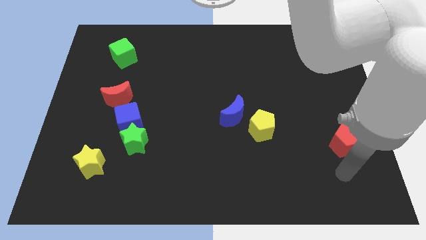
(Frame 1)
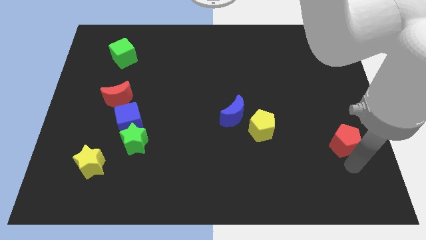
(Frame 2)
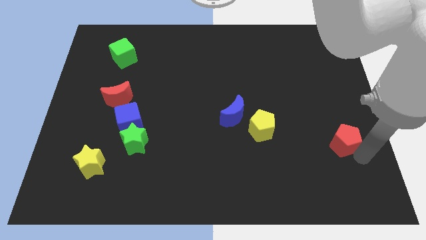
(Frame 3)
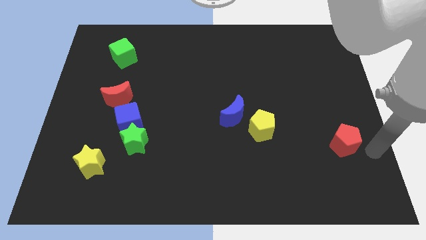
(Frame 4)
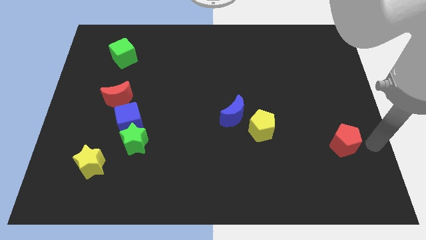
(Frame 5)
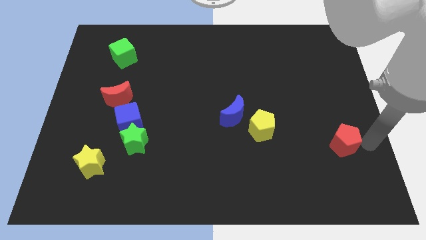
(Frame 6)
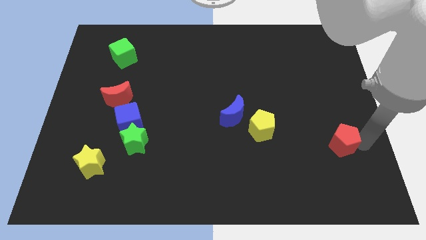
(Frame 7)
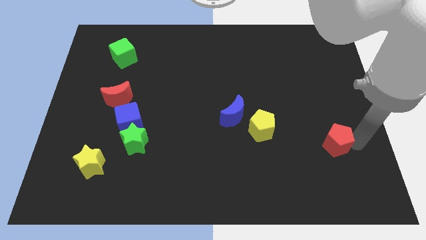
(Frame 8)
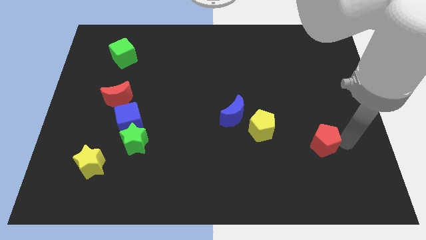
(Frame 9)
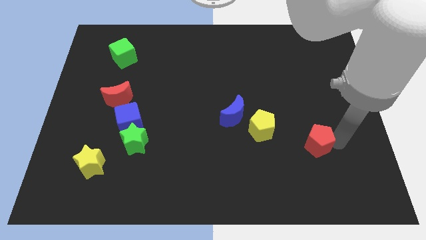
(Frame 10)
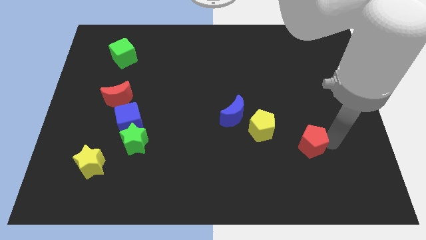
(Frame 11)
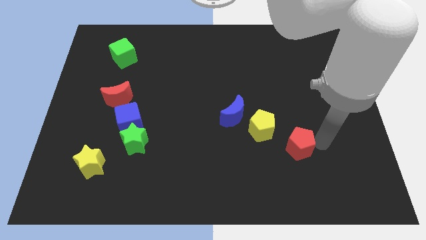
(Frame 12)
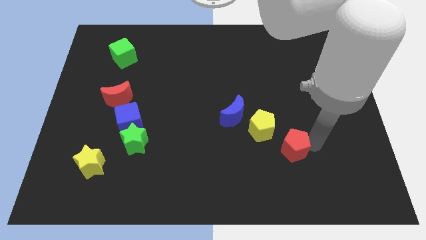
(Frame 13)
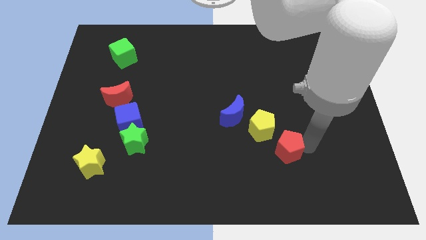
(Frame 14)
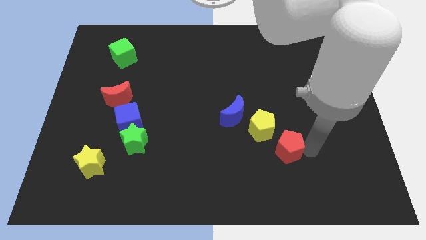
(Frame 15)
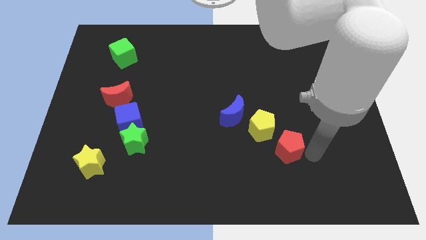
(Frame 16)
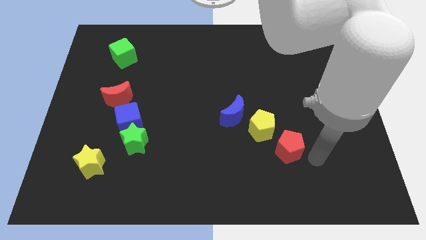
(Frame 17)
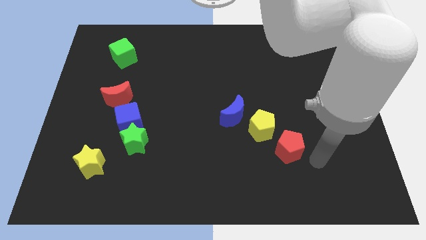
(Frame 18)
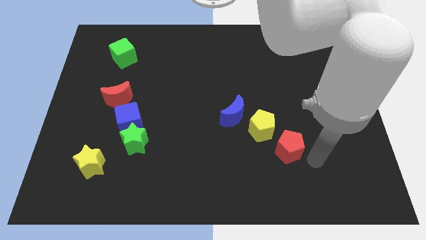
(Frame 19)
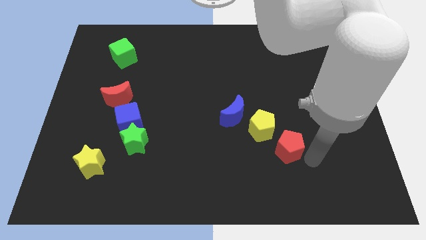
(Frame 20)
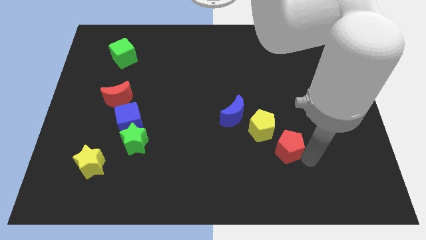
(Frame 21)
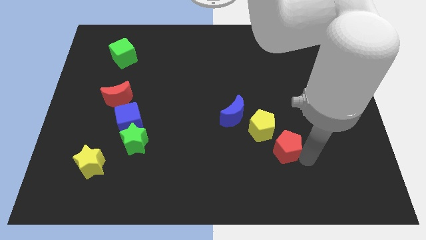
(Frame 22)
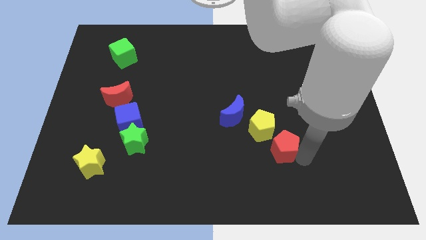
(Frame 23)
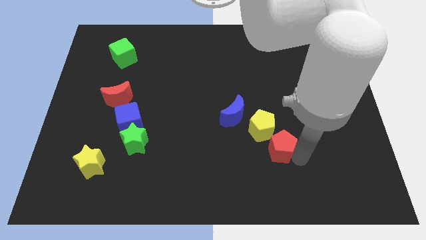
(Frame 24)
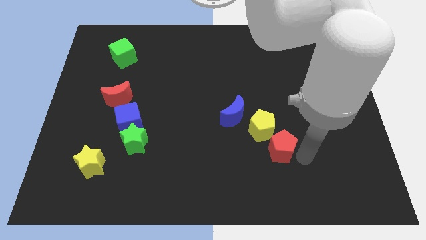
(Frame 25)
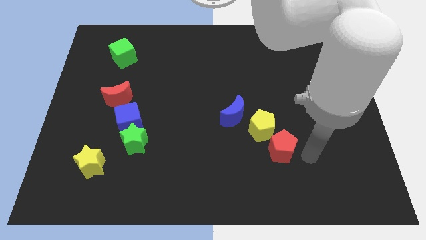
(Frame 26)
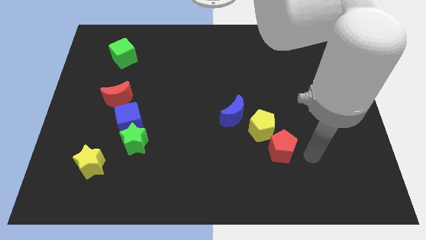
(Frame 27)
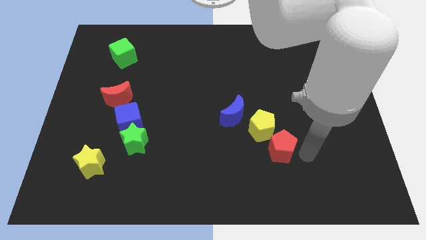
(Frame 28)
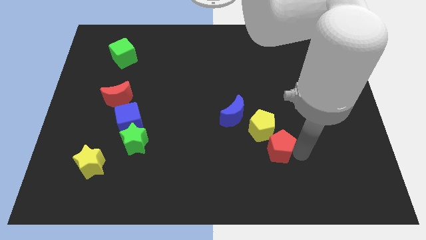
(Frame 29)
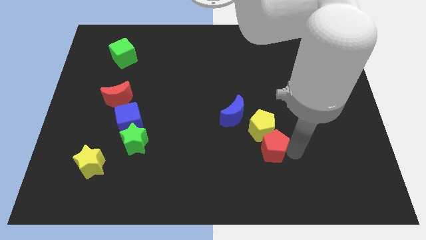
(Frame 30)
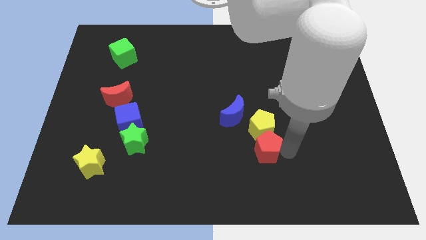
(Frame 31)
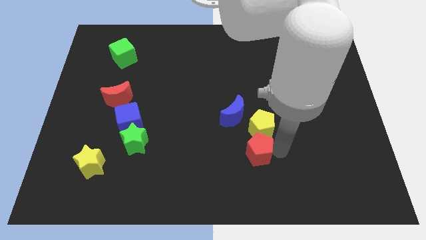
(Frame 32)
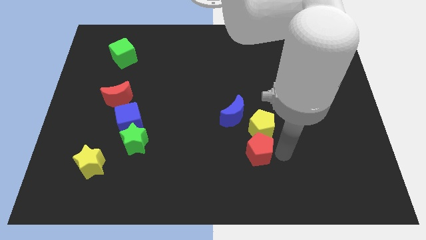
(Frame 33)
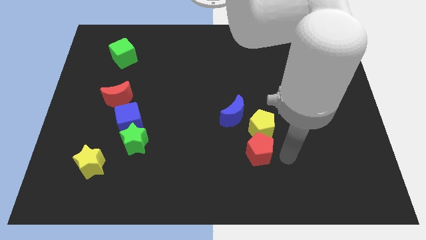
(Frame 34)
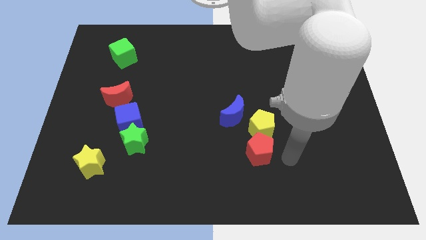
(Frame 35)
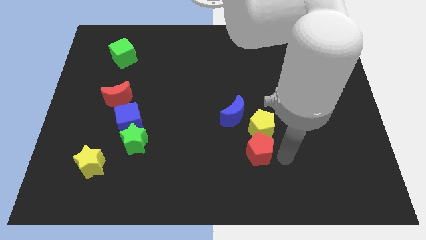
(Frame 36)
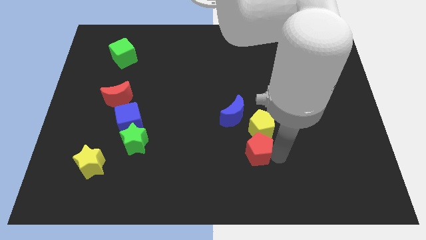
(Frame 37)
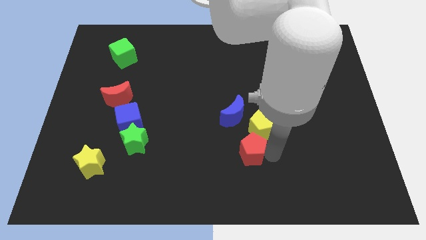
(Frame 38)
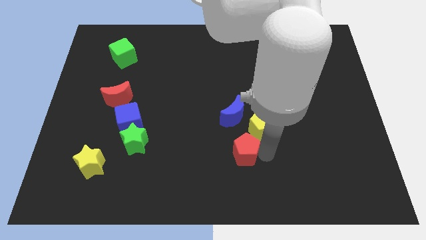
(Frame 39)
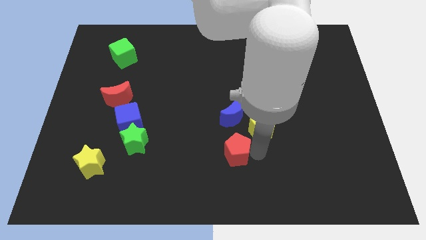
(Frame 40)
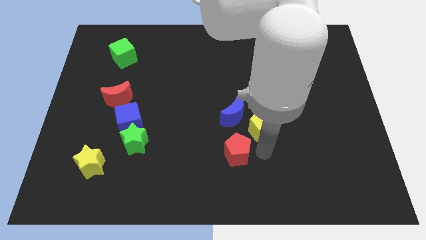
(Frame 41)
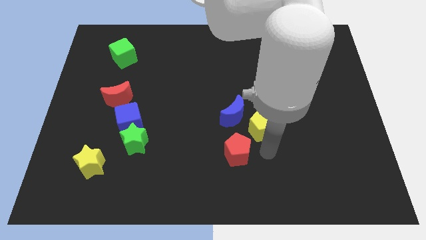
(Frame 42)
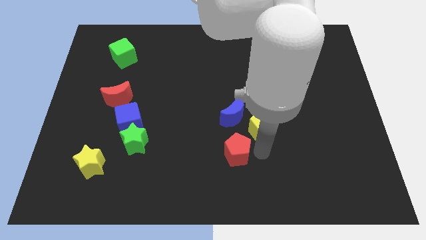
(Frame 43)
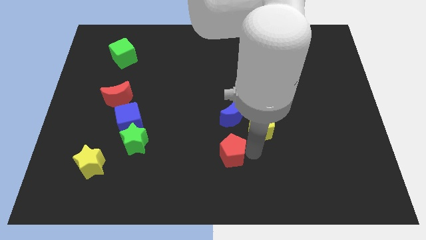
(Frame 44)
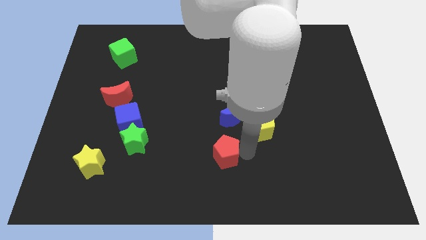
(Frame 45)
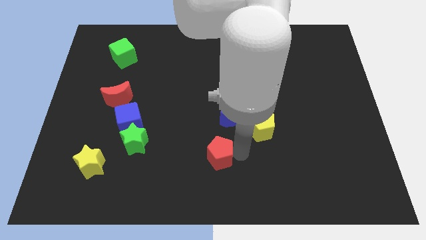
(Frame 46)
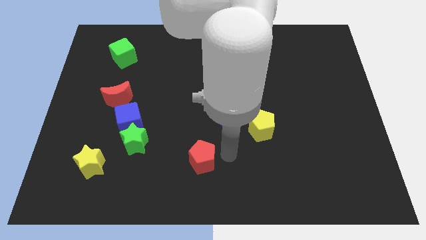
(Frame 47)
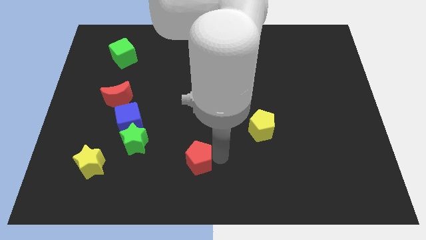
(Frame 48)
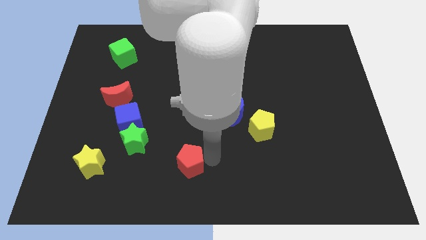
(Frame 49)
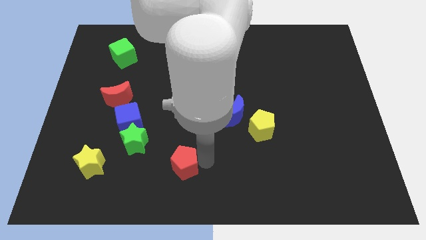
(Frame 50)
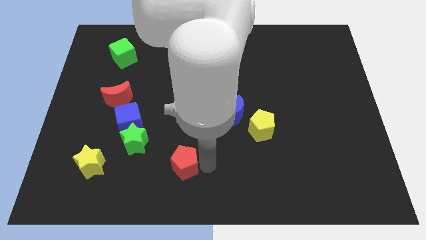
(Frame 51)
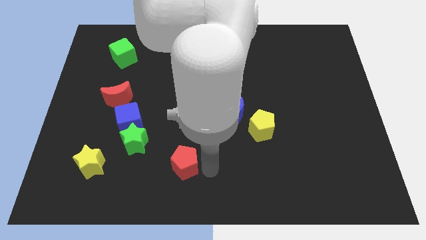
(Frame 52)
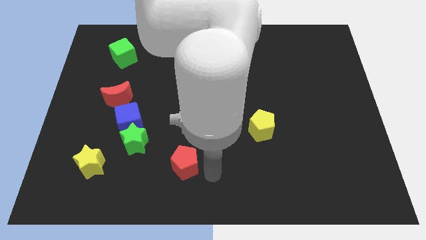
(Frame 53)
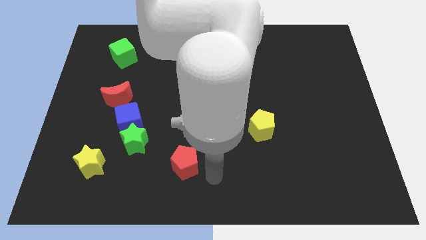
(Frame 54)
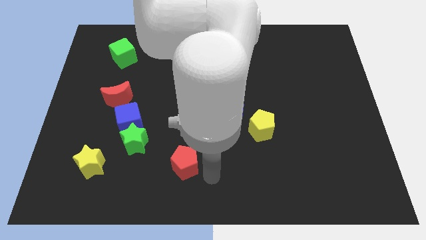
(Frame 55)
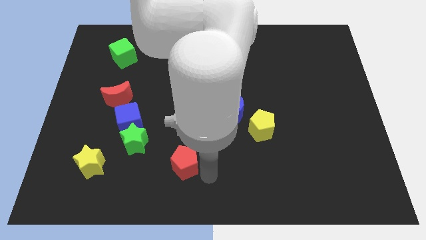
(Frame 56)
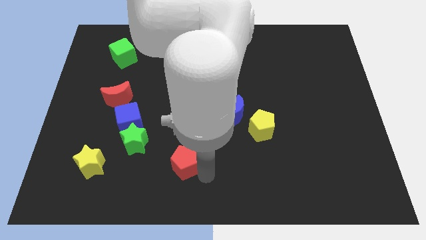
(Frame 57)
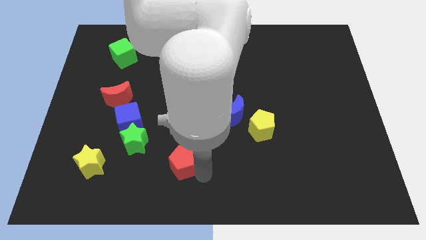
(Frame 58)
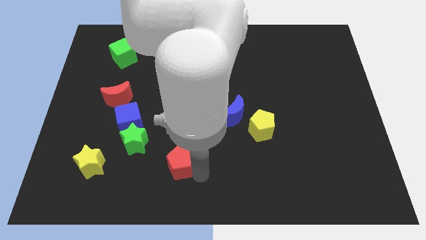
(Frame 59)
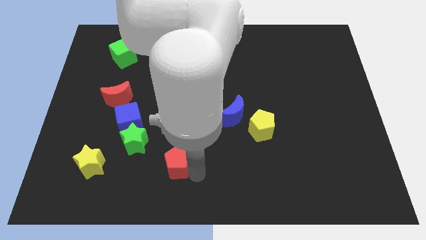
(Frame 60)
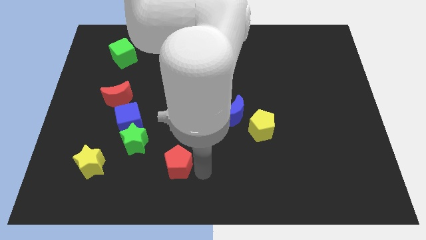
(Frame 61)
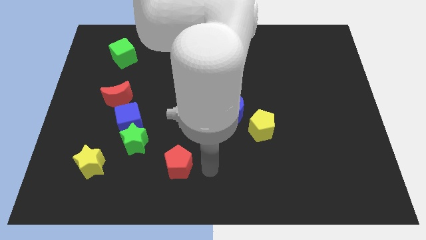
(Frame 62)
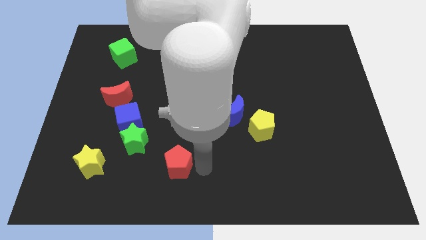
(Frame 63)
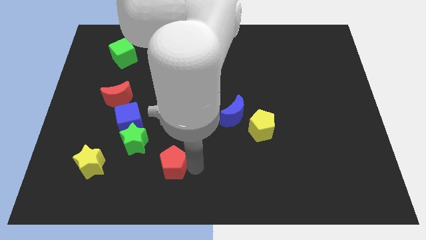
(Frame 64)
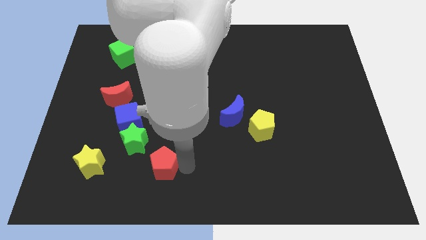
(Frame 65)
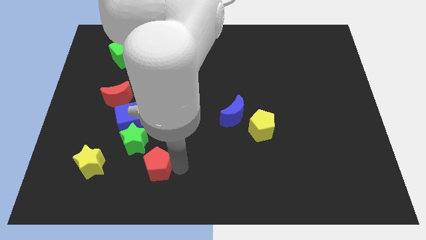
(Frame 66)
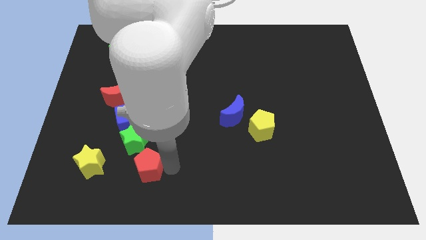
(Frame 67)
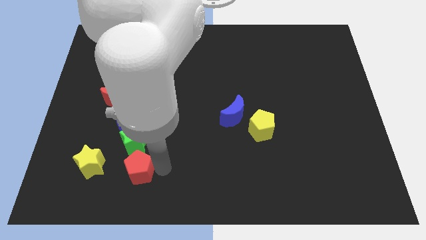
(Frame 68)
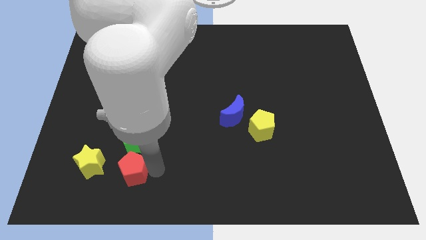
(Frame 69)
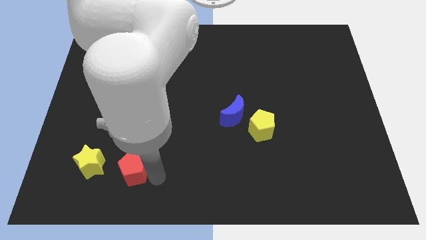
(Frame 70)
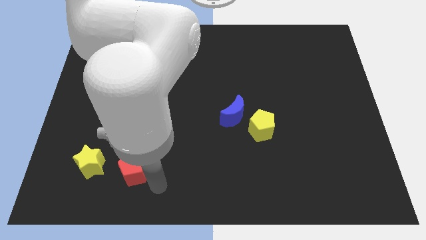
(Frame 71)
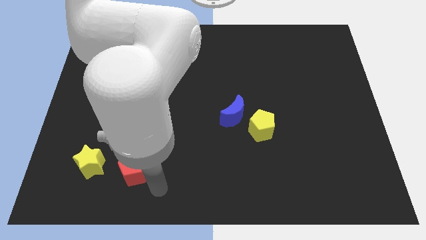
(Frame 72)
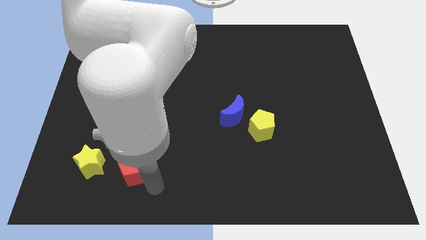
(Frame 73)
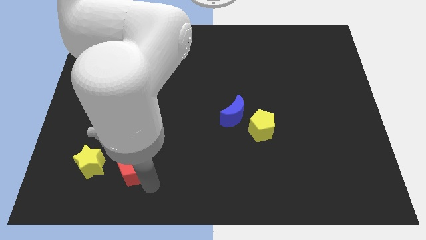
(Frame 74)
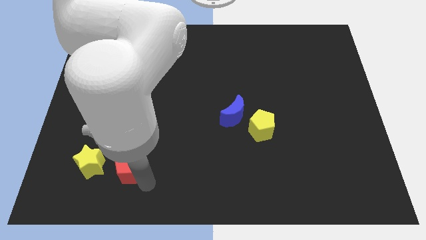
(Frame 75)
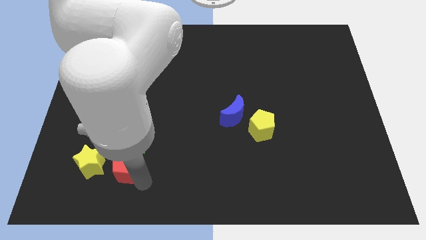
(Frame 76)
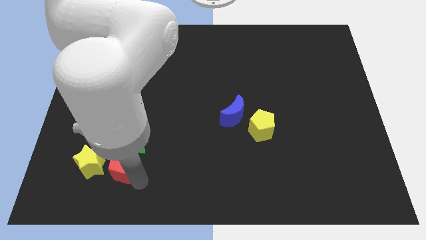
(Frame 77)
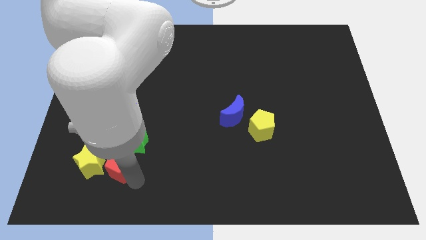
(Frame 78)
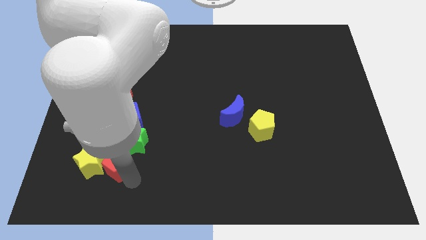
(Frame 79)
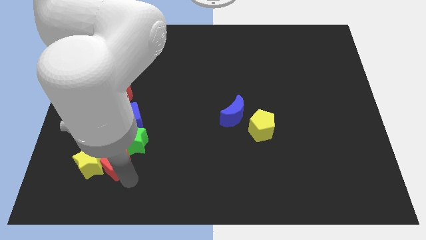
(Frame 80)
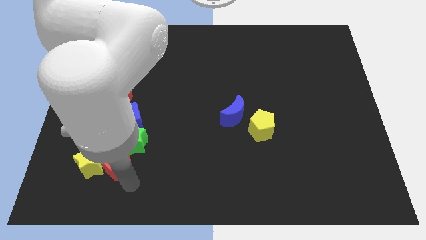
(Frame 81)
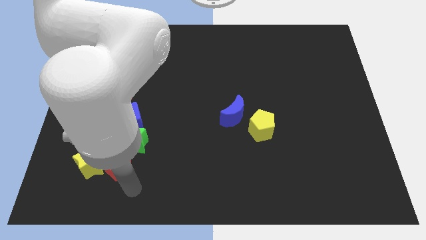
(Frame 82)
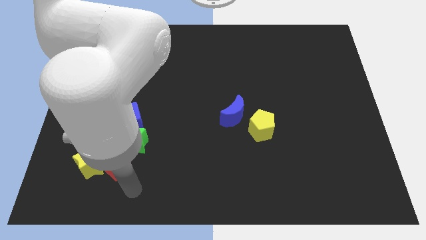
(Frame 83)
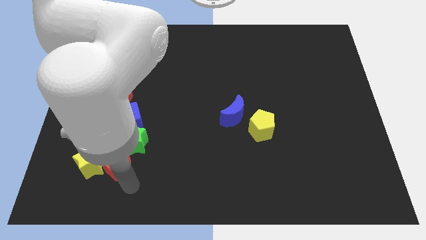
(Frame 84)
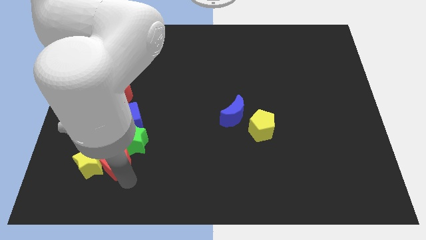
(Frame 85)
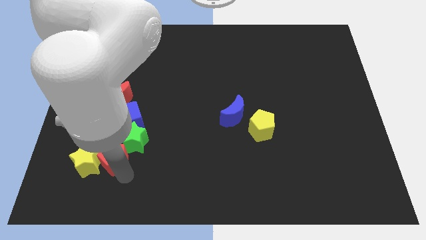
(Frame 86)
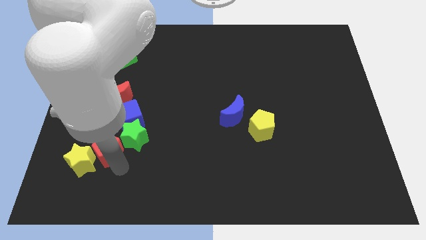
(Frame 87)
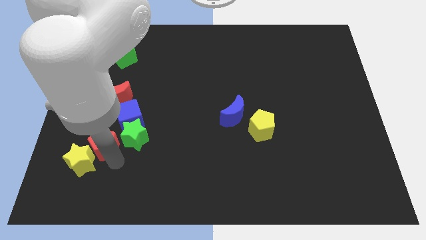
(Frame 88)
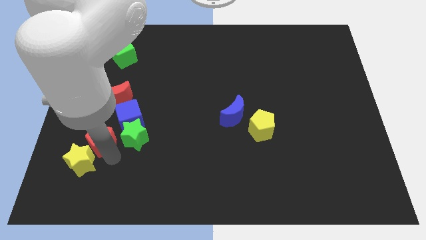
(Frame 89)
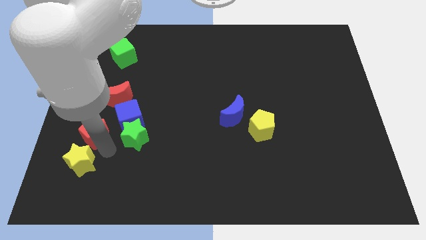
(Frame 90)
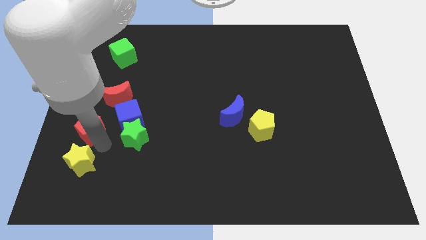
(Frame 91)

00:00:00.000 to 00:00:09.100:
move the red pentagon diagonally down and to the left of the red moon
